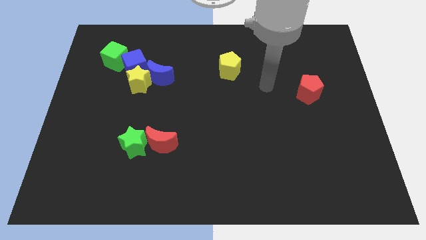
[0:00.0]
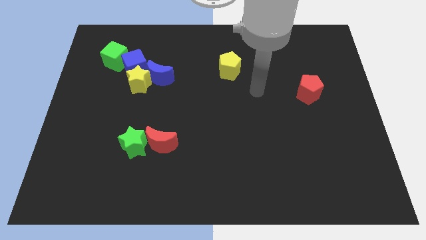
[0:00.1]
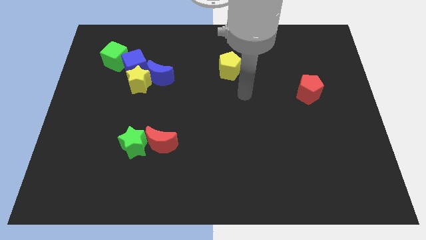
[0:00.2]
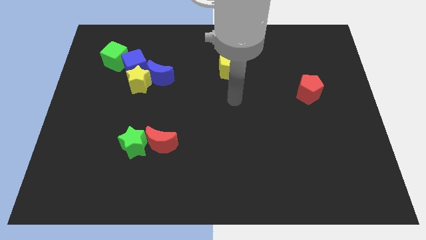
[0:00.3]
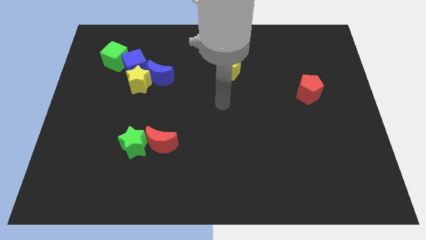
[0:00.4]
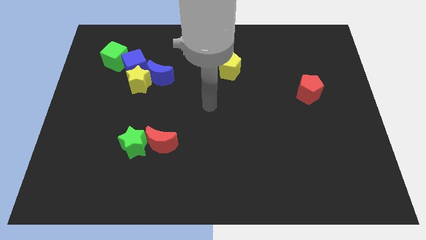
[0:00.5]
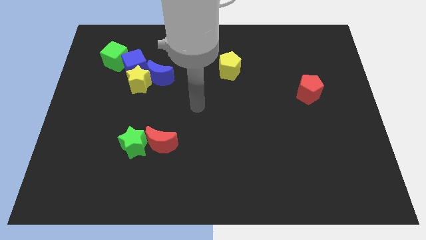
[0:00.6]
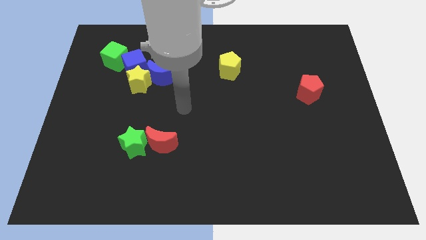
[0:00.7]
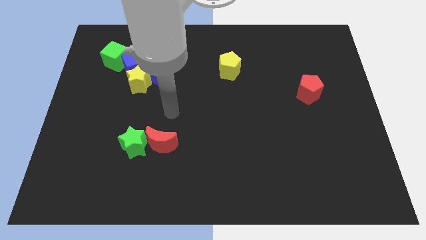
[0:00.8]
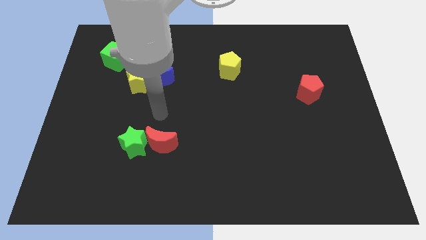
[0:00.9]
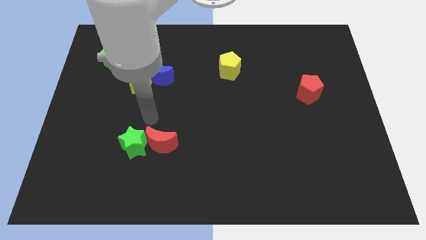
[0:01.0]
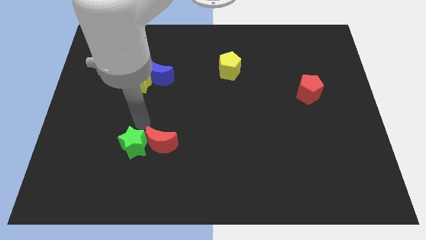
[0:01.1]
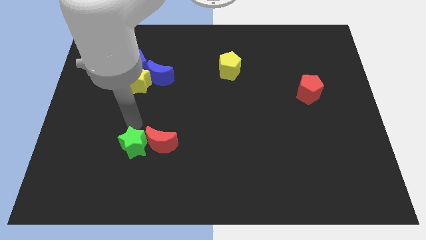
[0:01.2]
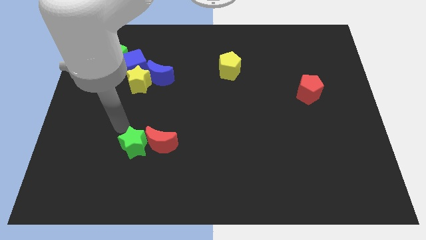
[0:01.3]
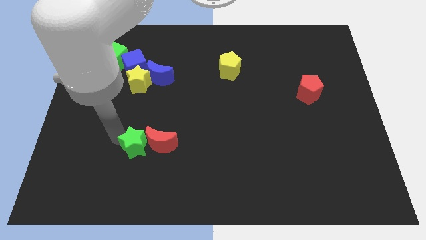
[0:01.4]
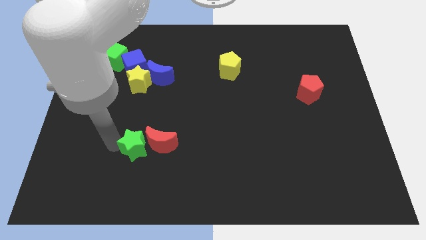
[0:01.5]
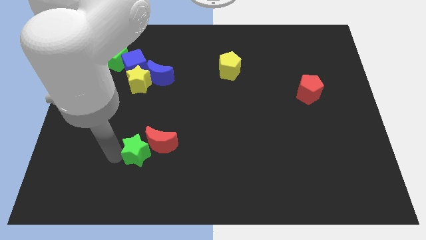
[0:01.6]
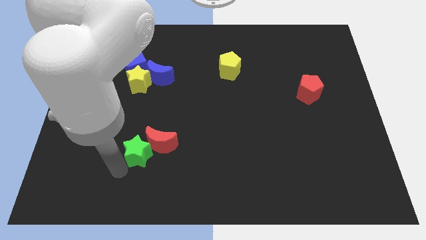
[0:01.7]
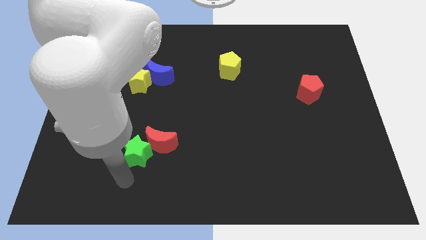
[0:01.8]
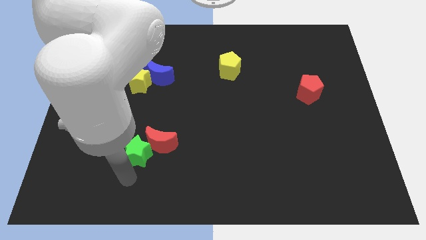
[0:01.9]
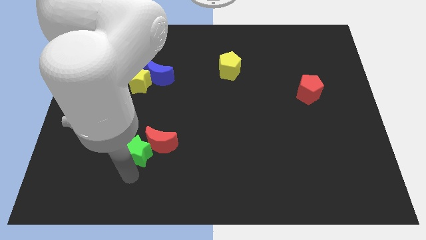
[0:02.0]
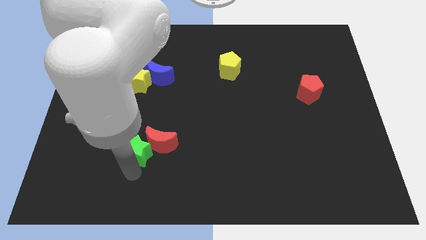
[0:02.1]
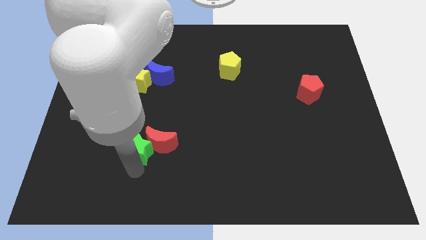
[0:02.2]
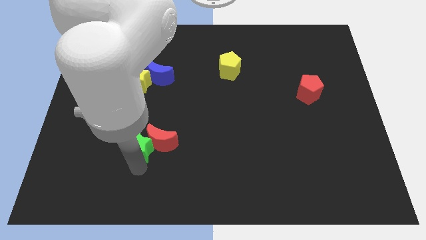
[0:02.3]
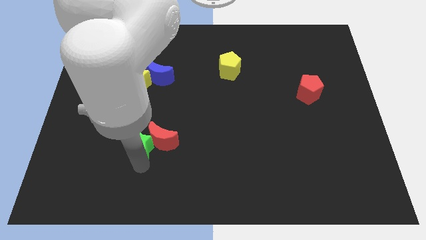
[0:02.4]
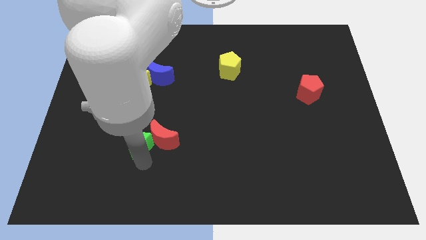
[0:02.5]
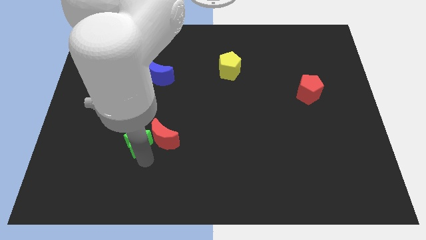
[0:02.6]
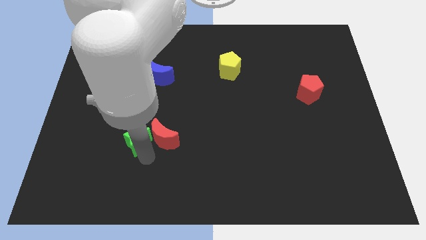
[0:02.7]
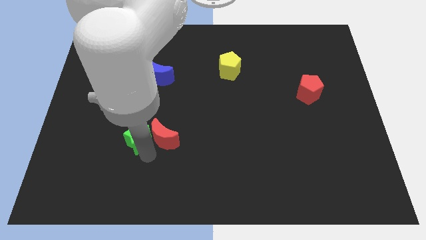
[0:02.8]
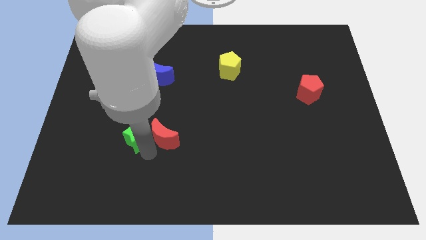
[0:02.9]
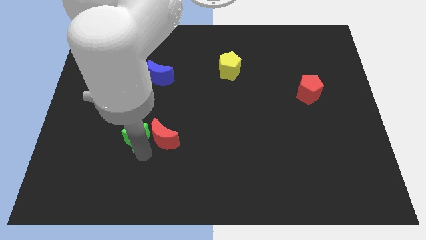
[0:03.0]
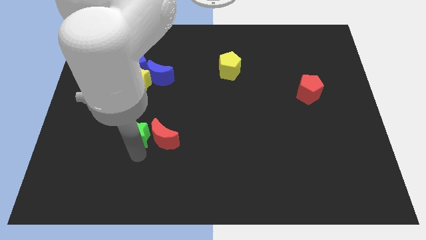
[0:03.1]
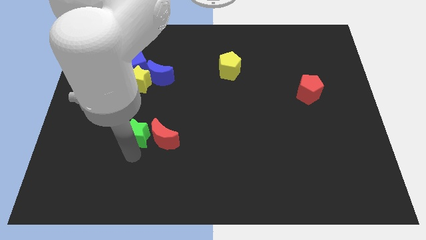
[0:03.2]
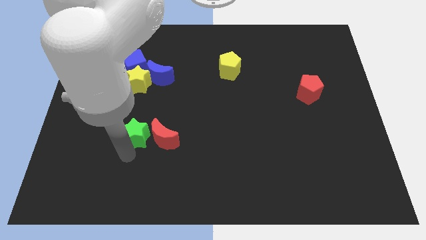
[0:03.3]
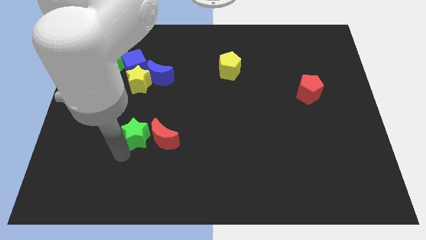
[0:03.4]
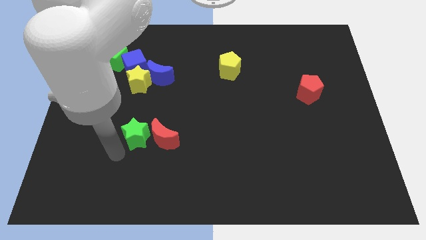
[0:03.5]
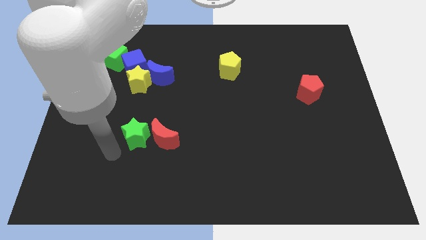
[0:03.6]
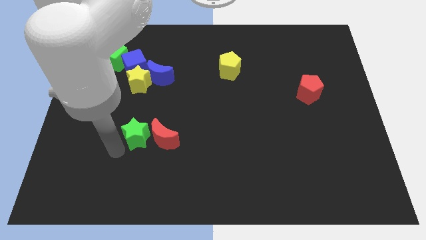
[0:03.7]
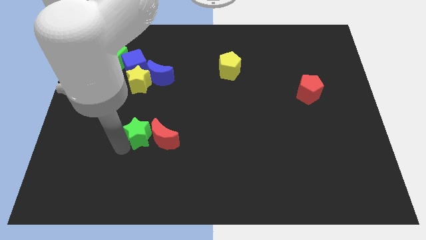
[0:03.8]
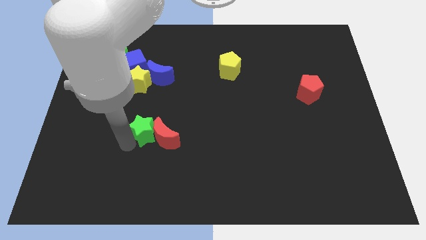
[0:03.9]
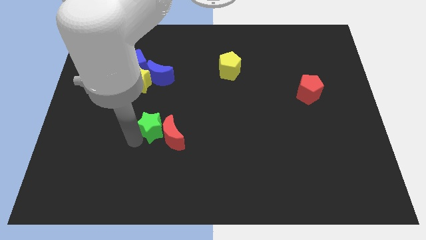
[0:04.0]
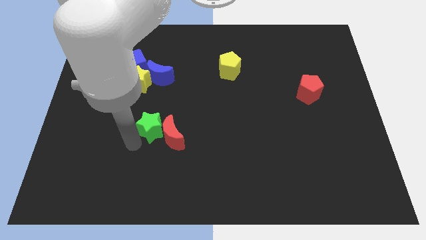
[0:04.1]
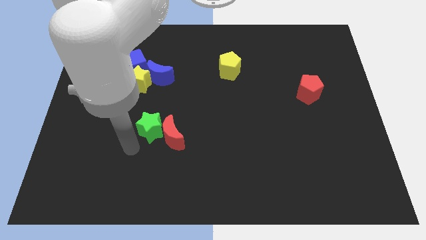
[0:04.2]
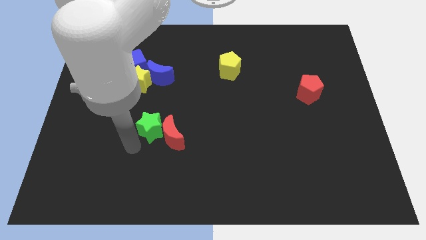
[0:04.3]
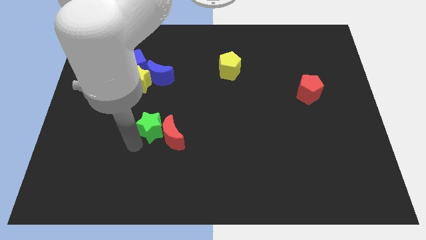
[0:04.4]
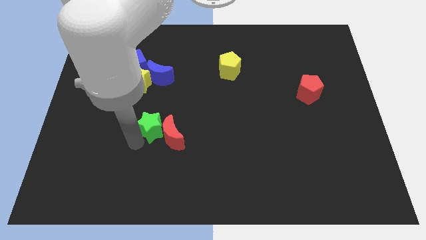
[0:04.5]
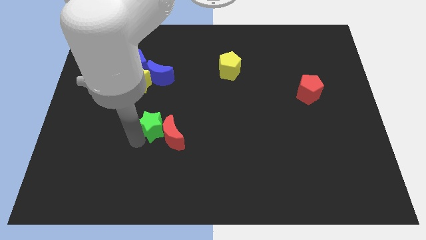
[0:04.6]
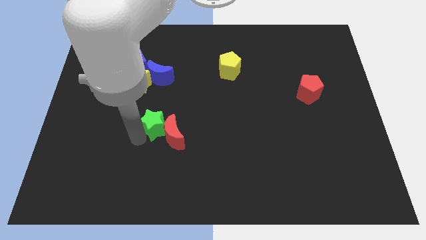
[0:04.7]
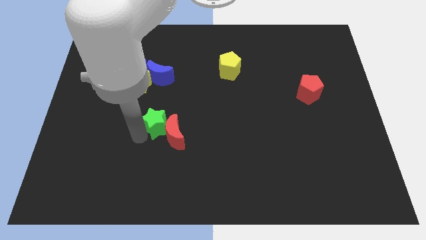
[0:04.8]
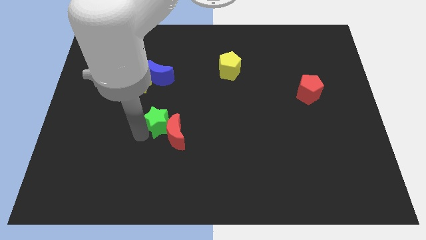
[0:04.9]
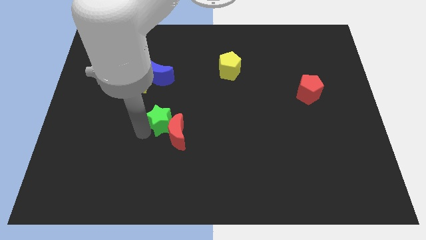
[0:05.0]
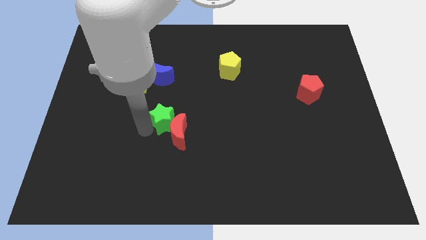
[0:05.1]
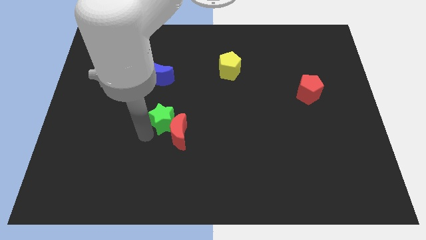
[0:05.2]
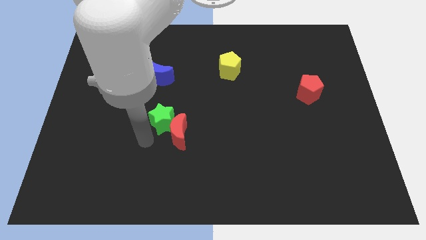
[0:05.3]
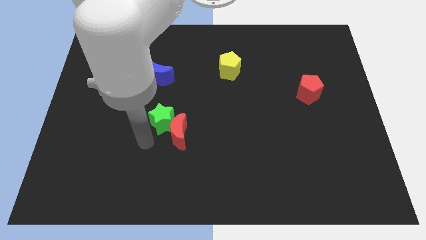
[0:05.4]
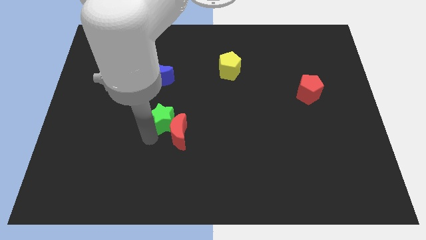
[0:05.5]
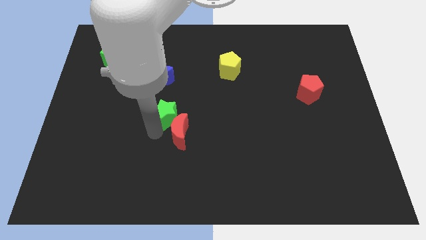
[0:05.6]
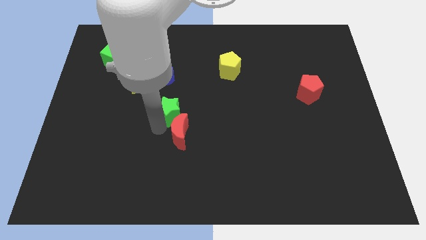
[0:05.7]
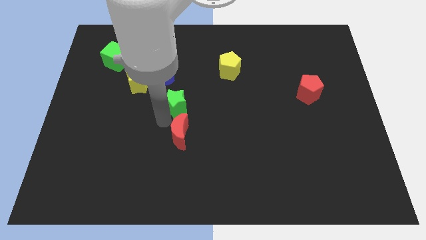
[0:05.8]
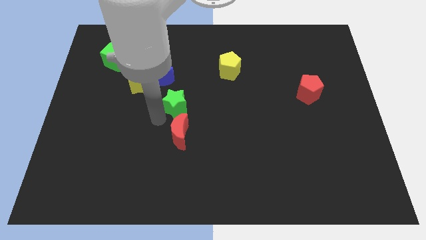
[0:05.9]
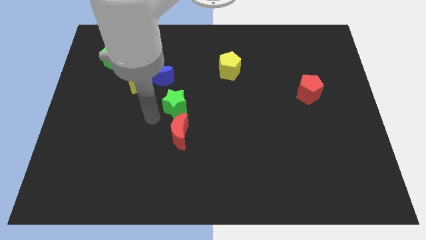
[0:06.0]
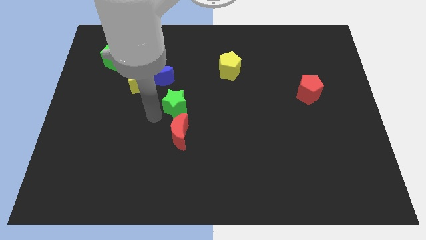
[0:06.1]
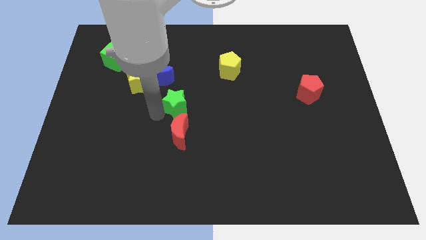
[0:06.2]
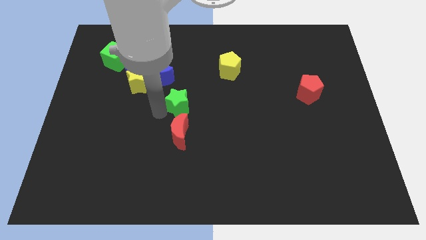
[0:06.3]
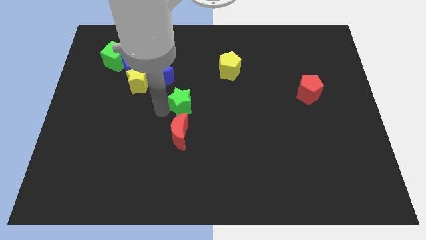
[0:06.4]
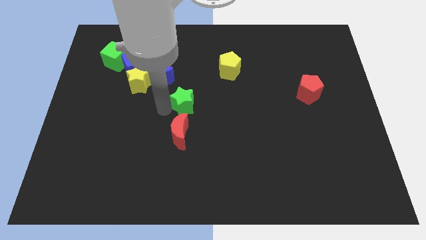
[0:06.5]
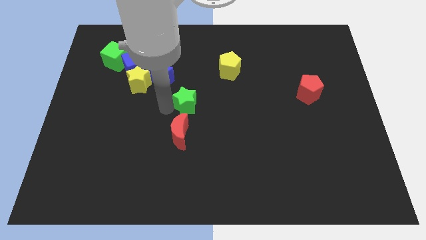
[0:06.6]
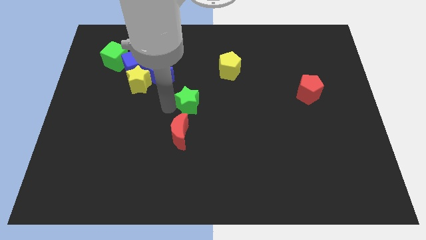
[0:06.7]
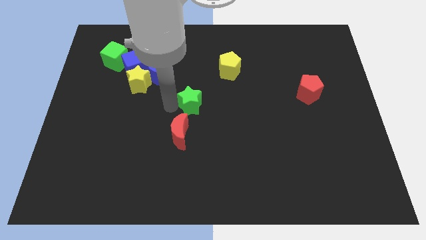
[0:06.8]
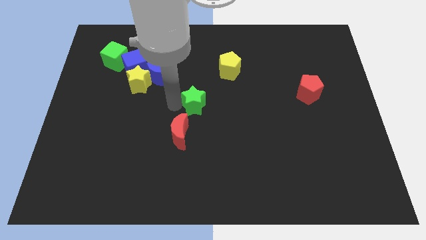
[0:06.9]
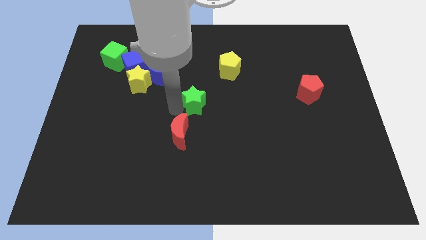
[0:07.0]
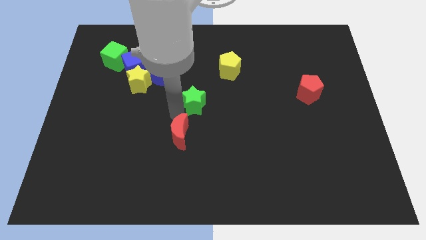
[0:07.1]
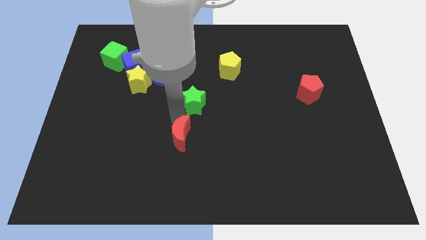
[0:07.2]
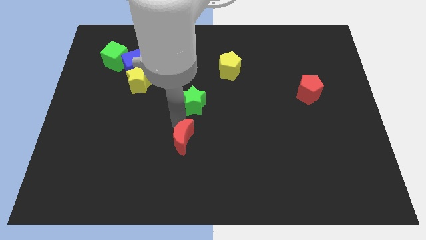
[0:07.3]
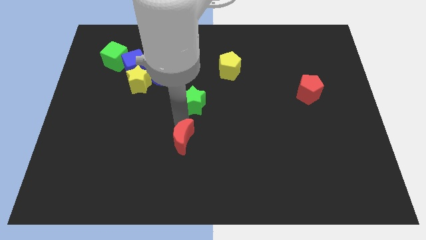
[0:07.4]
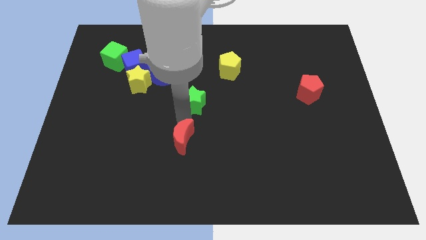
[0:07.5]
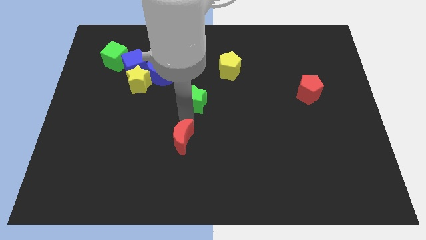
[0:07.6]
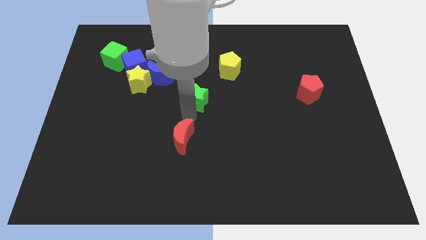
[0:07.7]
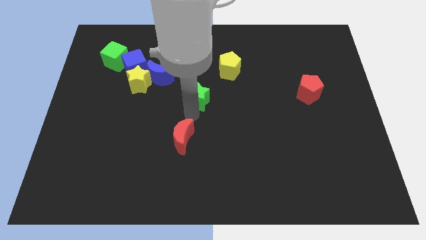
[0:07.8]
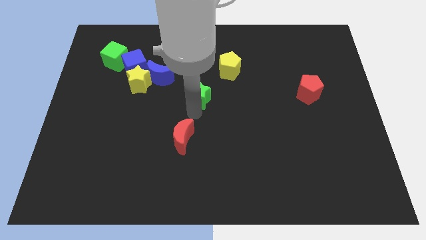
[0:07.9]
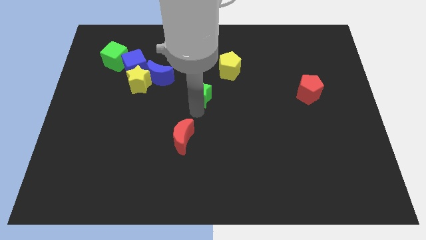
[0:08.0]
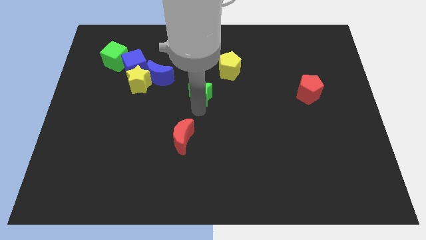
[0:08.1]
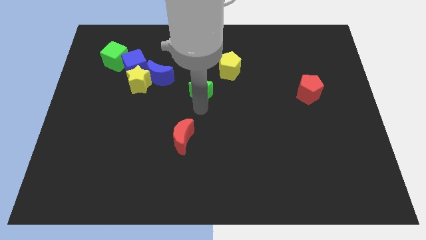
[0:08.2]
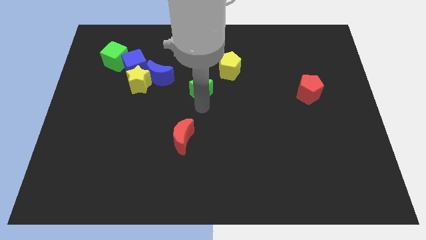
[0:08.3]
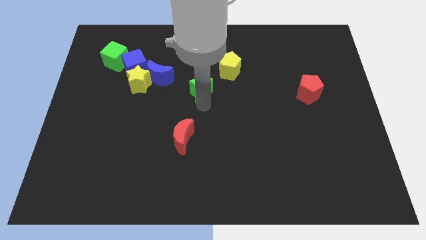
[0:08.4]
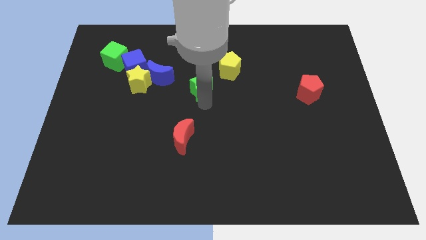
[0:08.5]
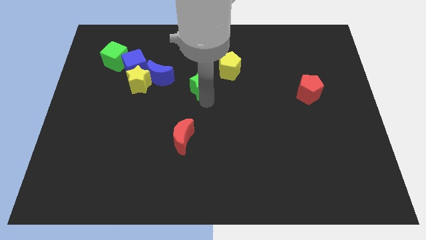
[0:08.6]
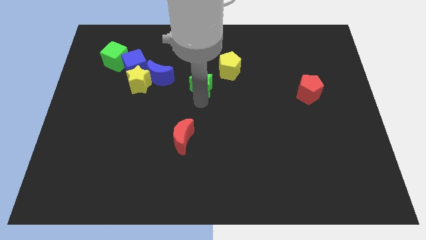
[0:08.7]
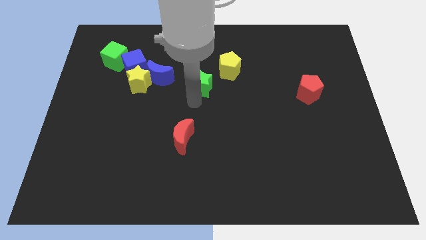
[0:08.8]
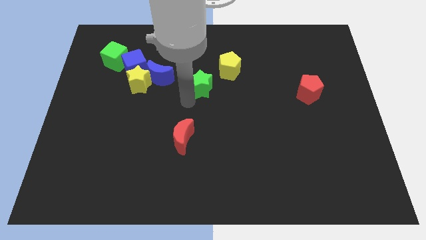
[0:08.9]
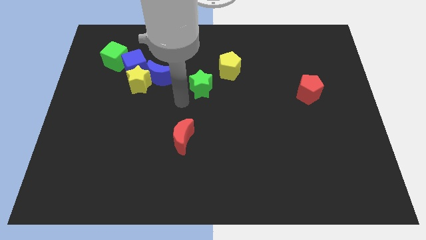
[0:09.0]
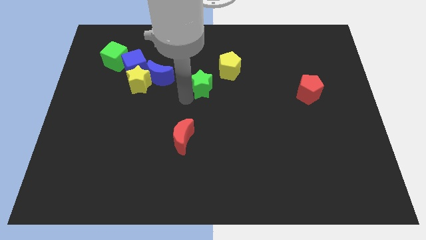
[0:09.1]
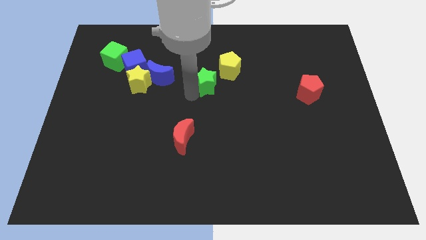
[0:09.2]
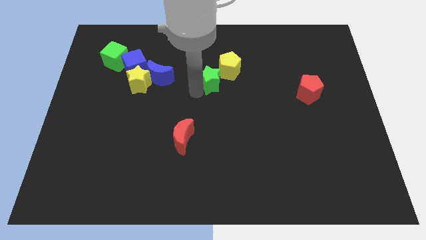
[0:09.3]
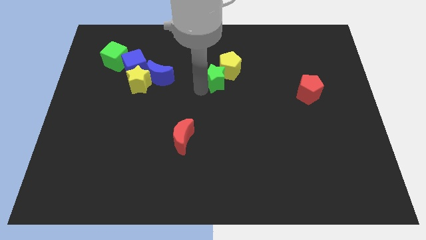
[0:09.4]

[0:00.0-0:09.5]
slide the green star to the yellow pentagon
